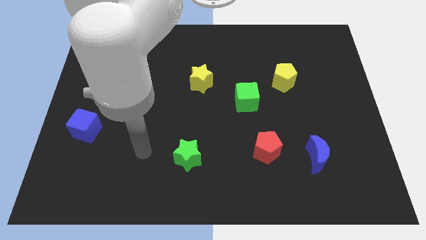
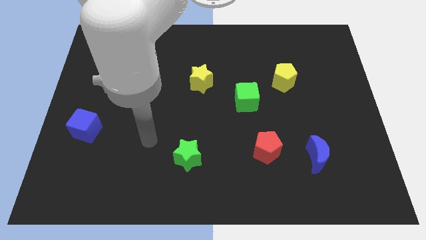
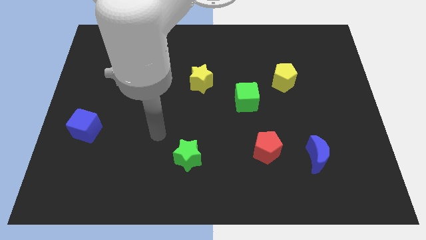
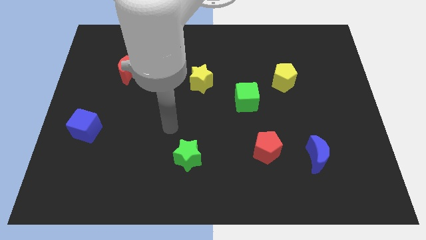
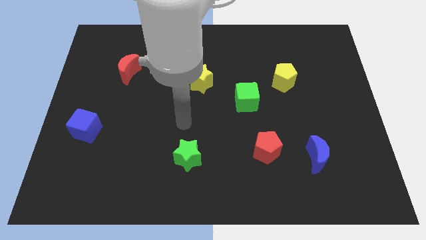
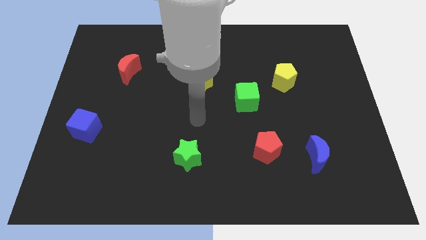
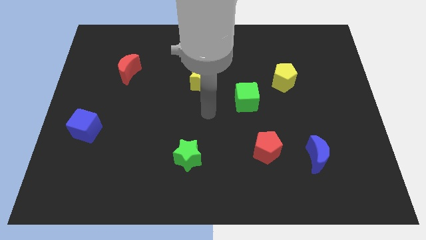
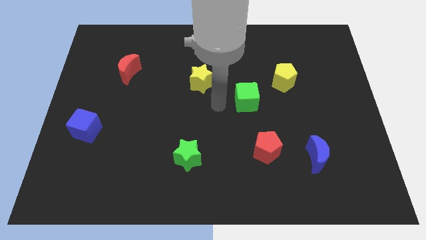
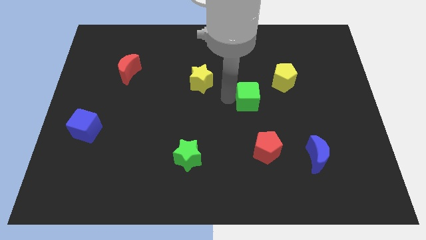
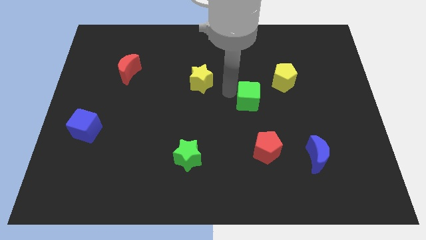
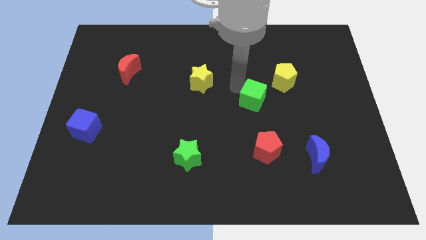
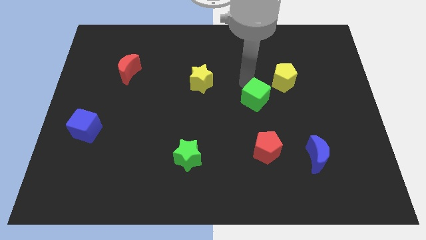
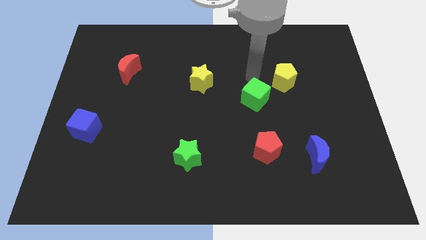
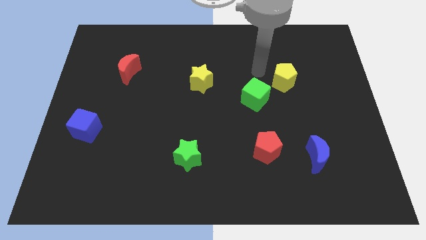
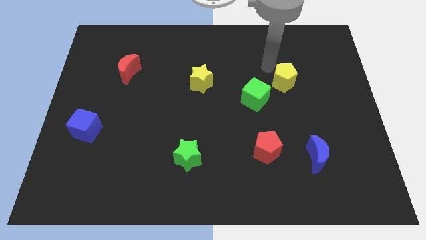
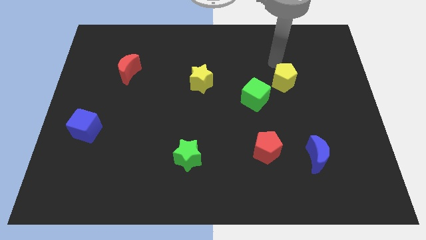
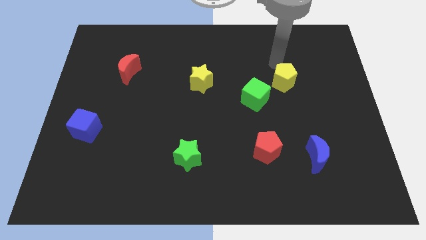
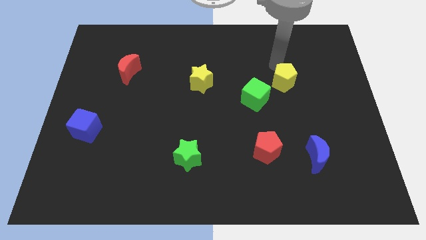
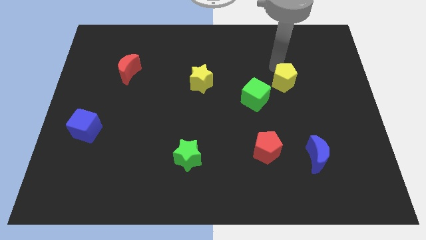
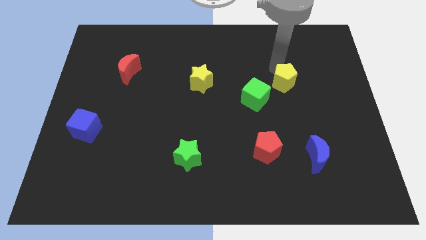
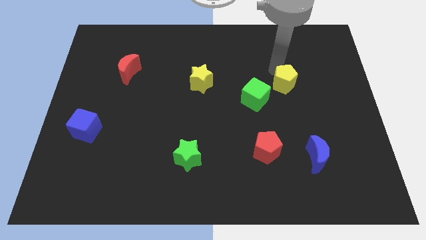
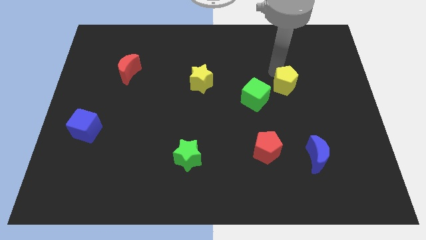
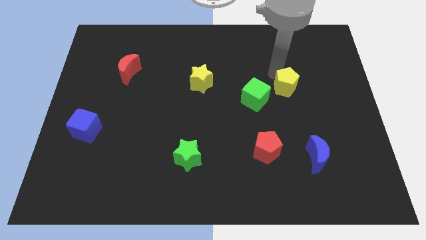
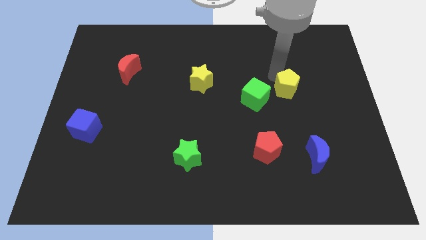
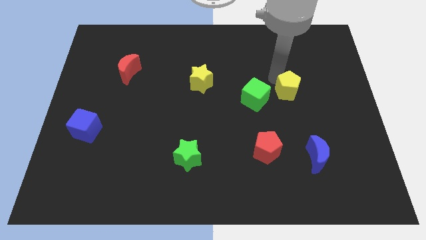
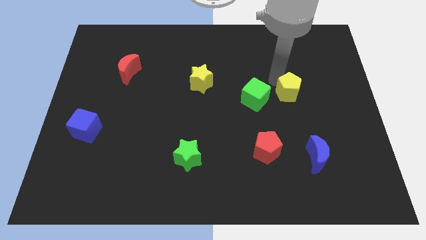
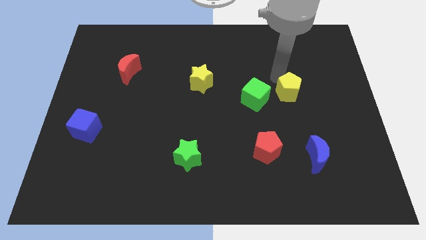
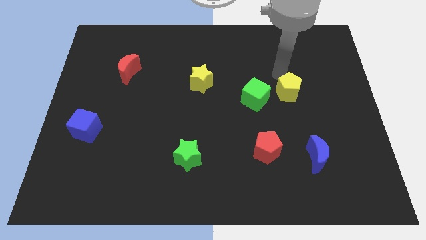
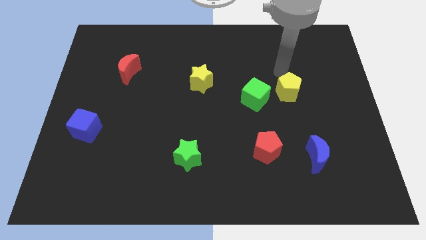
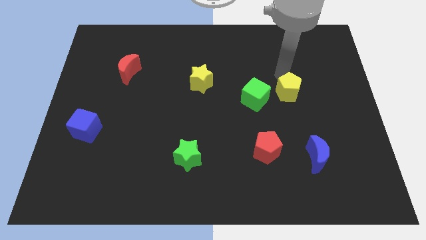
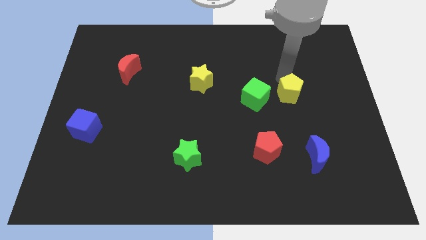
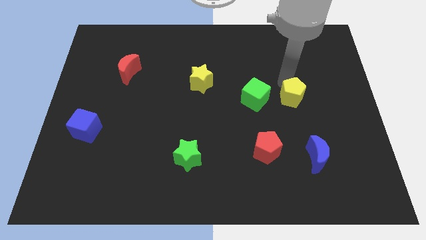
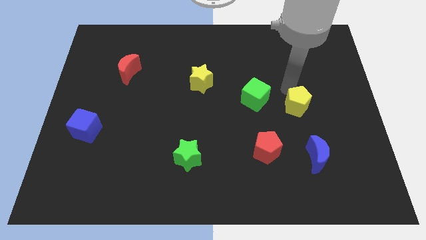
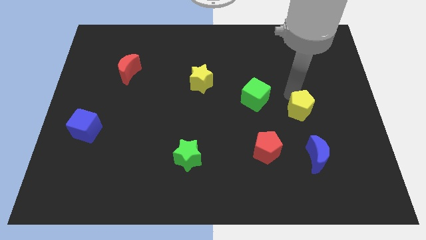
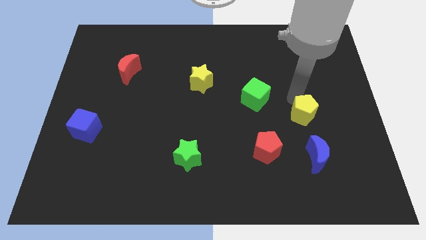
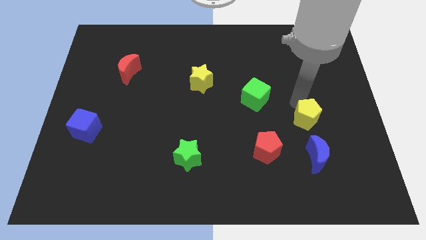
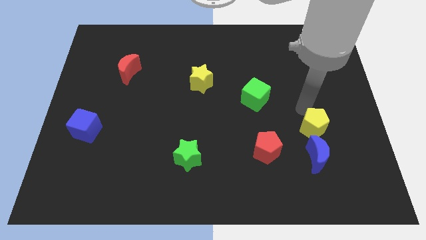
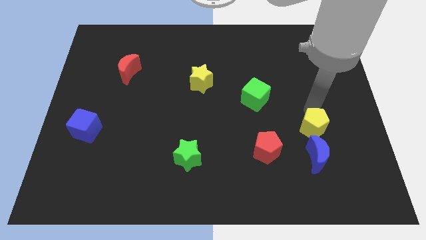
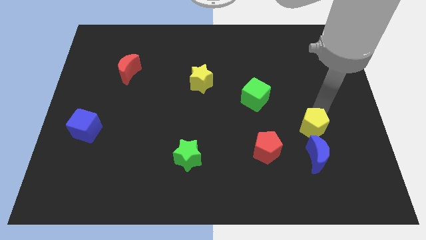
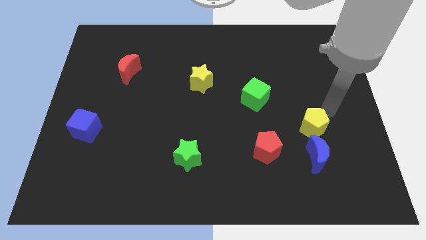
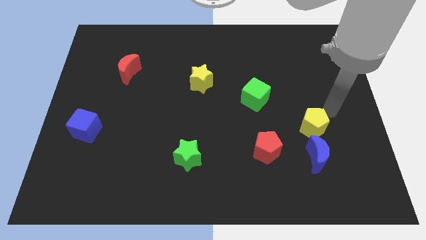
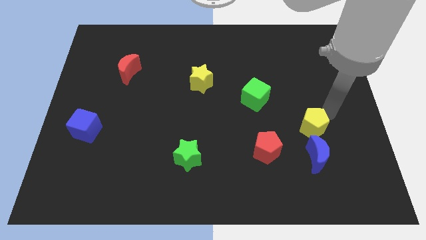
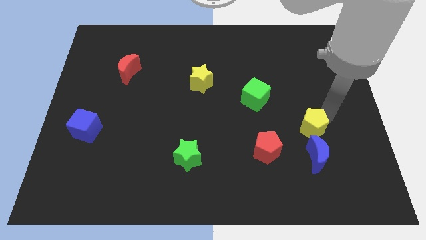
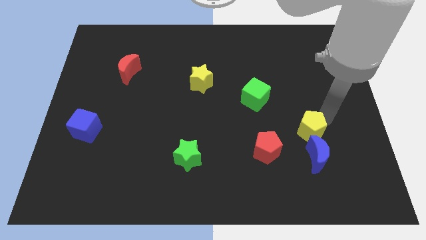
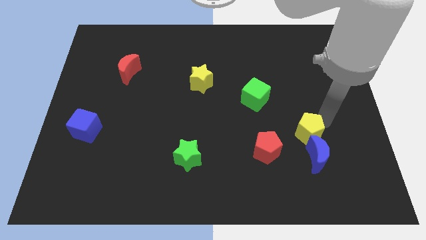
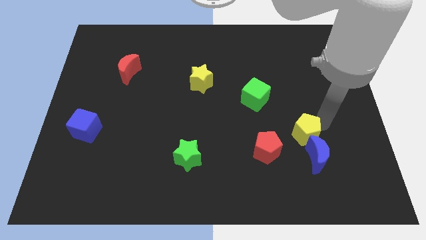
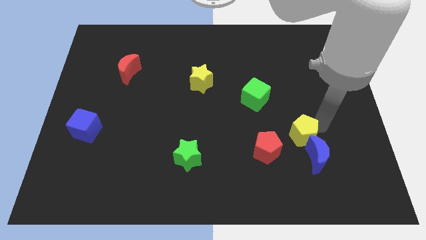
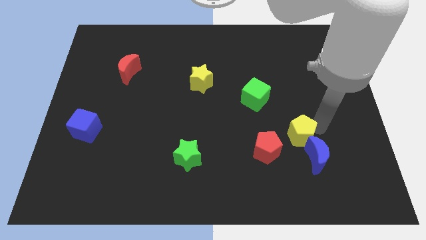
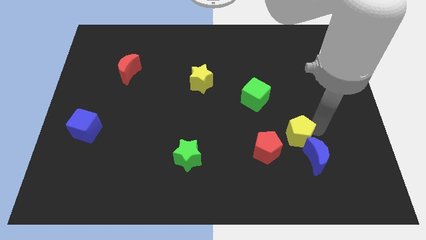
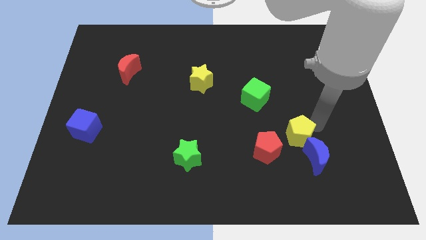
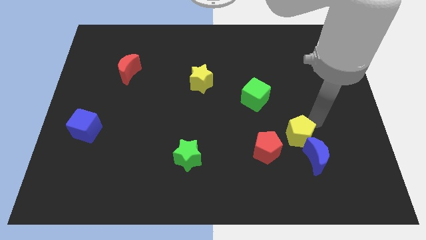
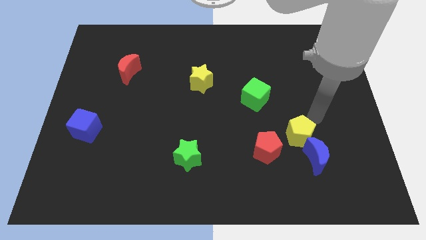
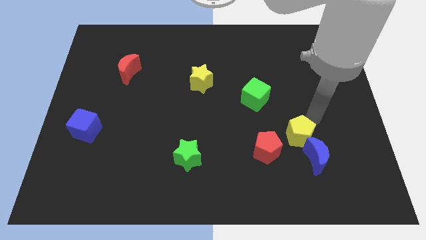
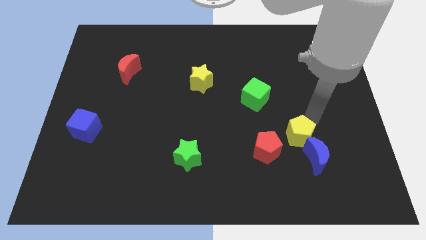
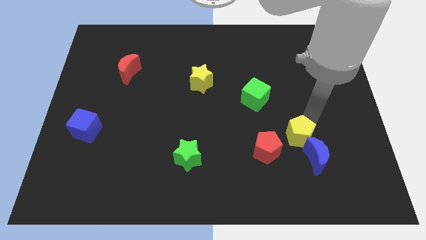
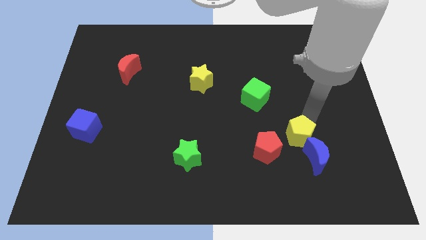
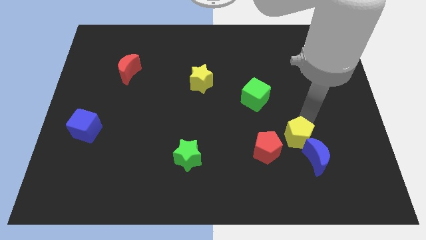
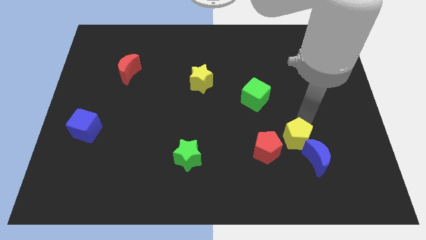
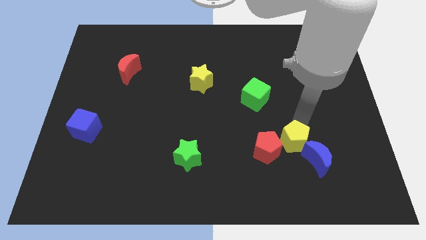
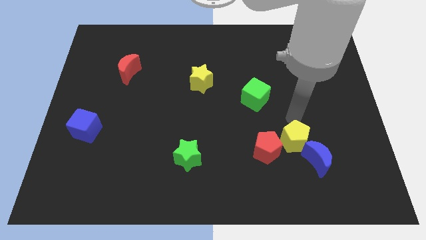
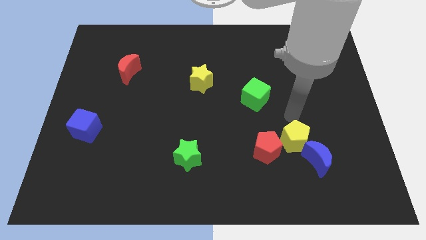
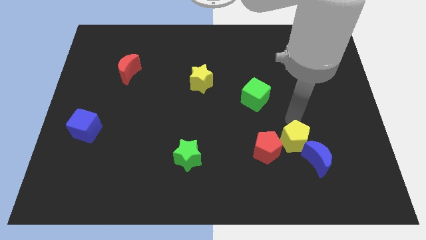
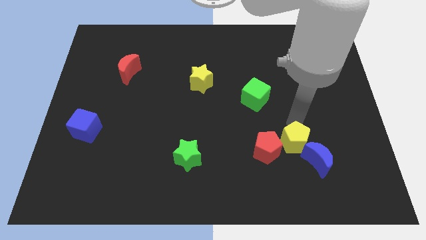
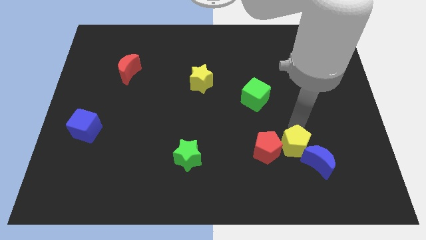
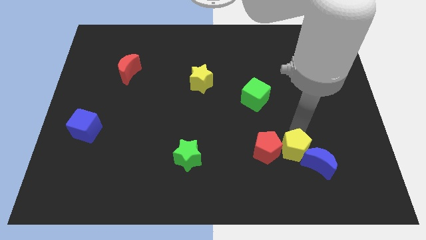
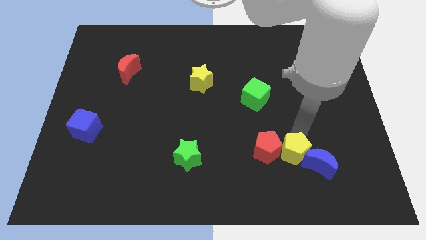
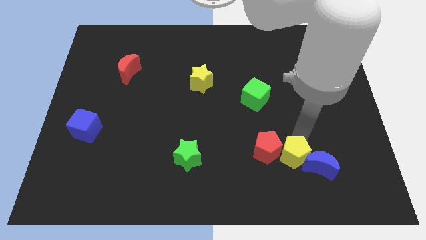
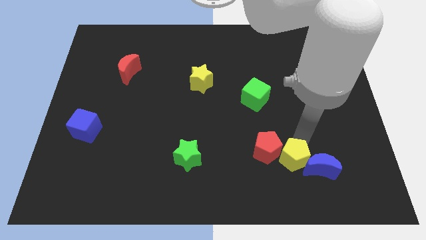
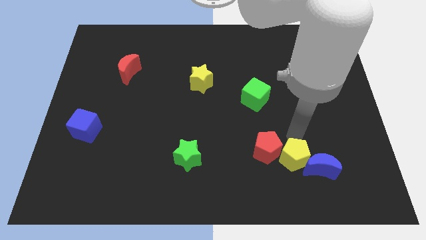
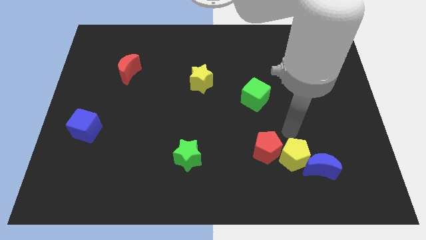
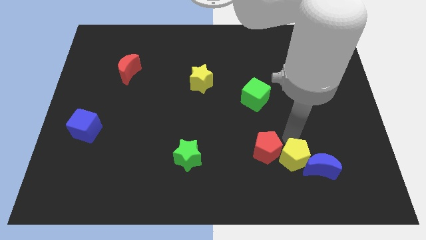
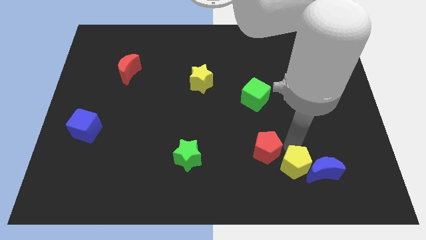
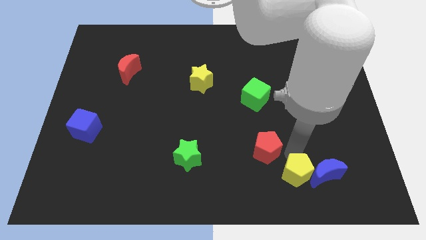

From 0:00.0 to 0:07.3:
move the yellow pentagon to the bottom left side of the blue moon
